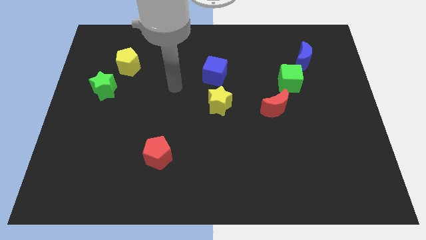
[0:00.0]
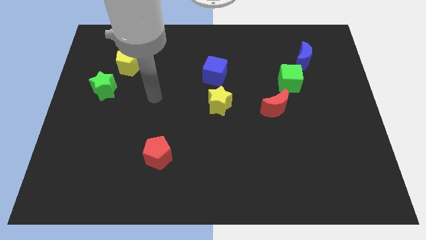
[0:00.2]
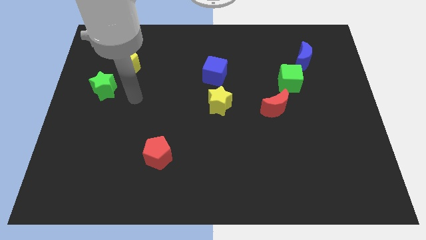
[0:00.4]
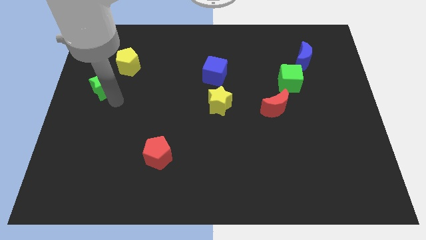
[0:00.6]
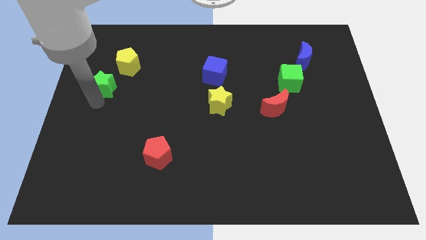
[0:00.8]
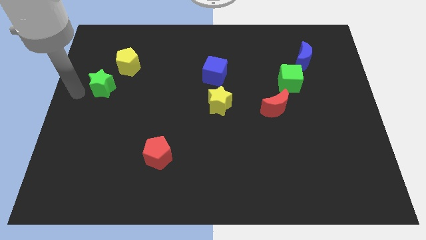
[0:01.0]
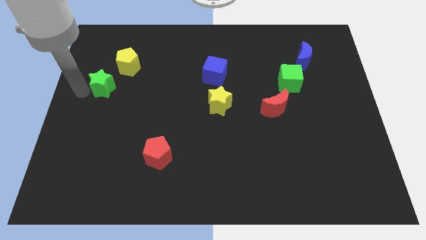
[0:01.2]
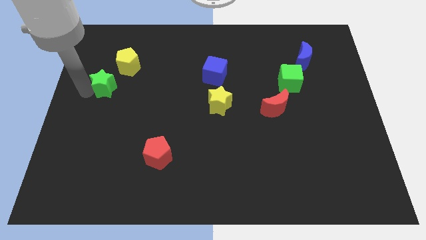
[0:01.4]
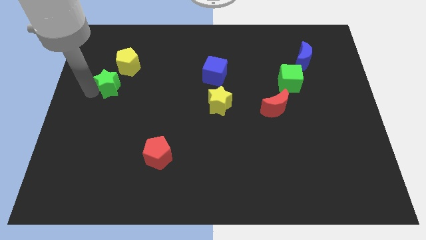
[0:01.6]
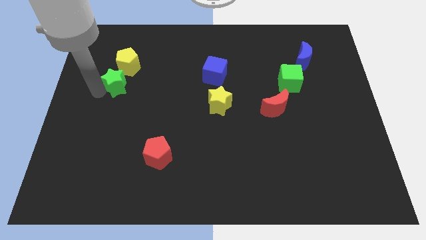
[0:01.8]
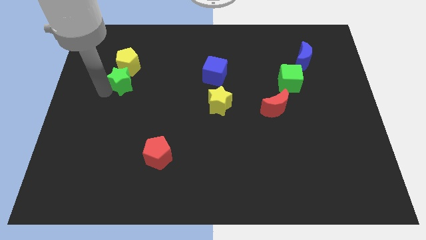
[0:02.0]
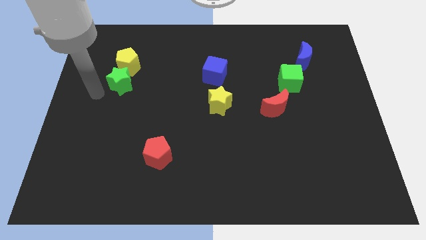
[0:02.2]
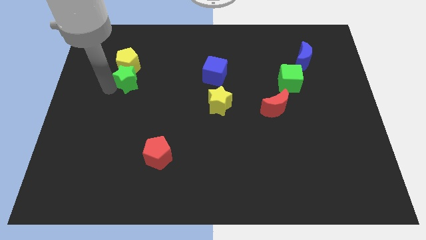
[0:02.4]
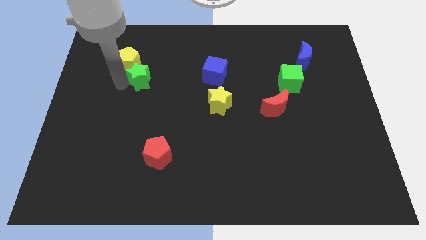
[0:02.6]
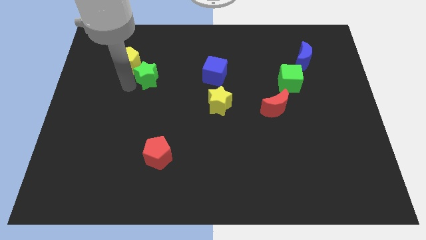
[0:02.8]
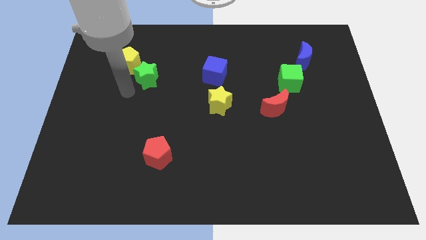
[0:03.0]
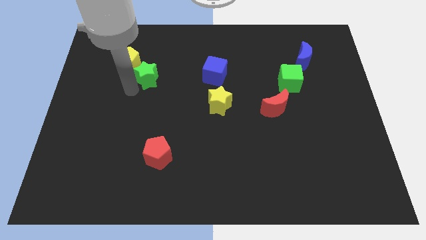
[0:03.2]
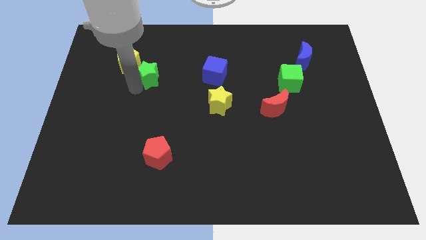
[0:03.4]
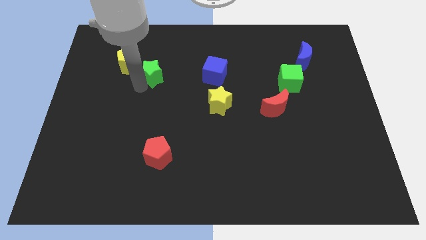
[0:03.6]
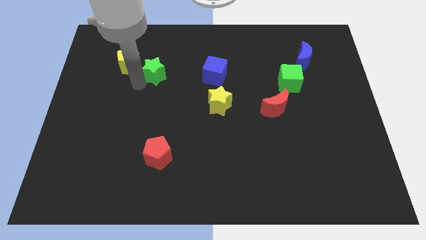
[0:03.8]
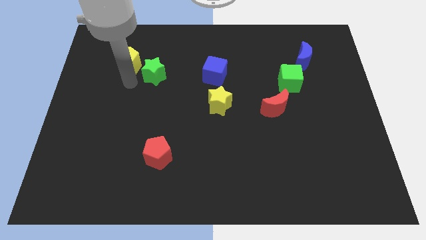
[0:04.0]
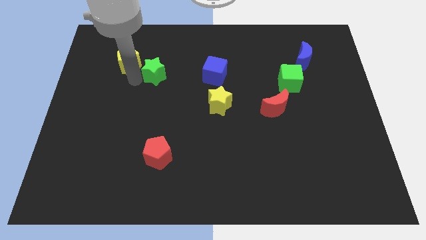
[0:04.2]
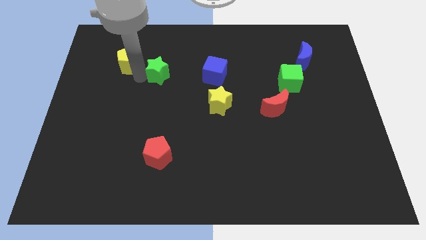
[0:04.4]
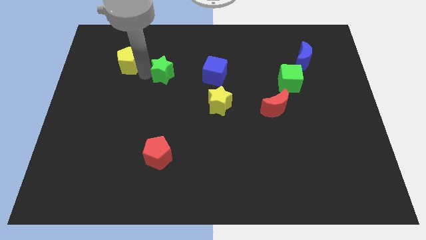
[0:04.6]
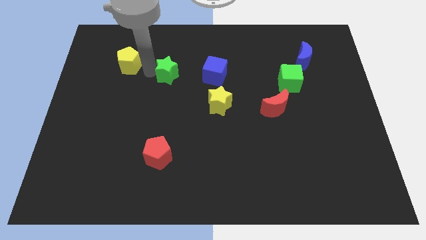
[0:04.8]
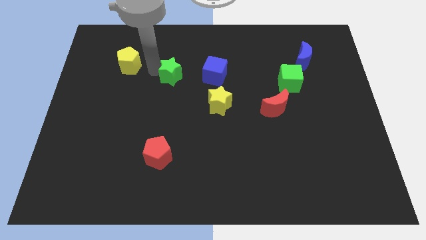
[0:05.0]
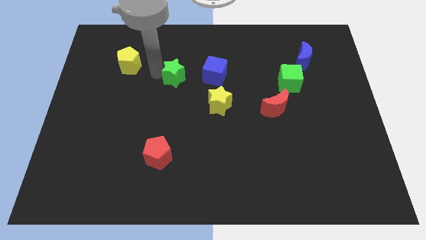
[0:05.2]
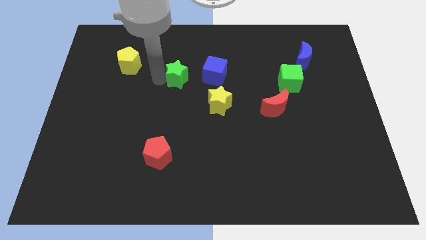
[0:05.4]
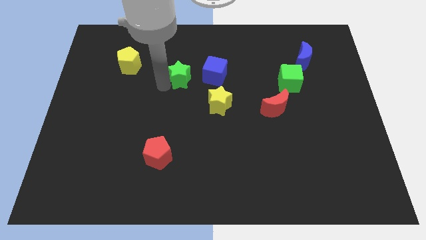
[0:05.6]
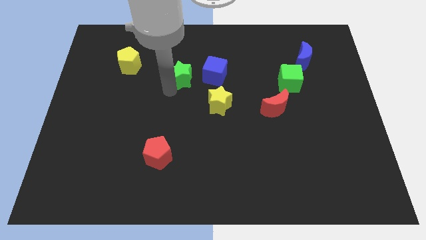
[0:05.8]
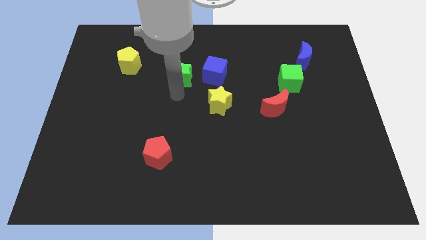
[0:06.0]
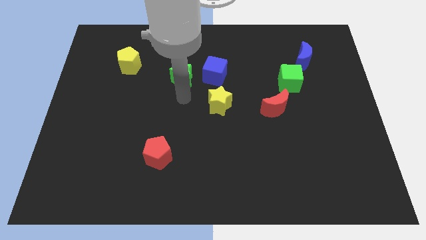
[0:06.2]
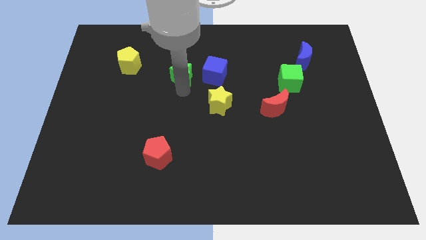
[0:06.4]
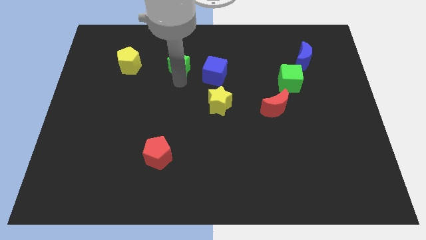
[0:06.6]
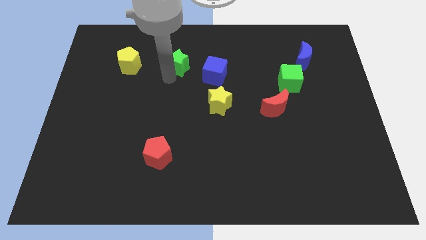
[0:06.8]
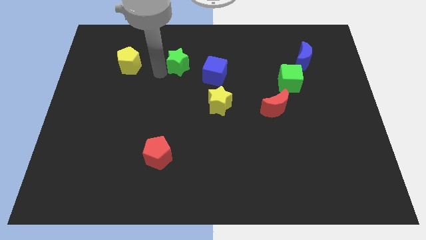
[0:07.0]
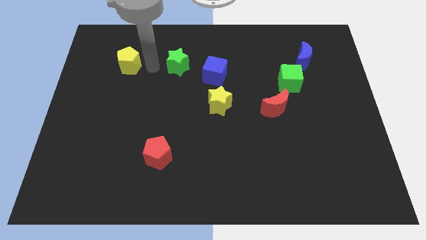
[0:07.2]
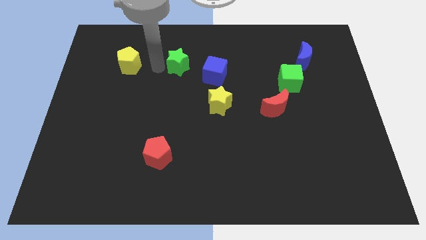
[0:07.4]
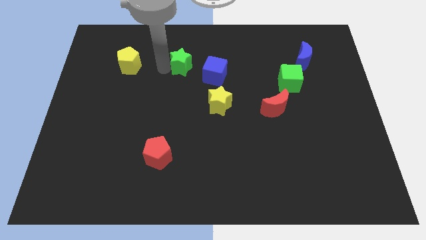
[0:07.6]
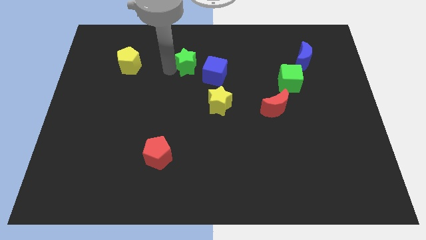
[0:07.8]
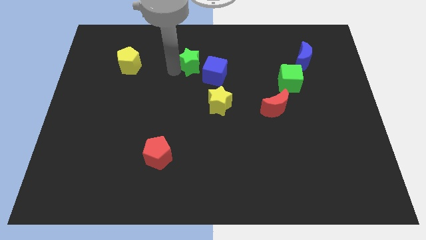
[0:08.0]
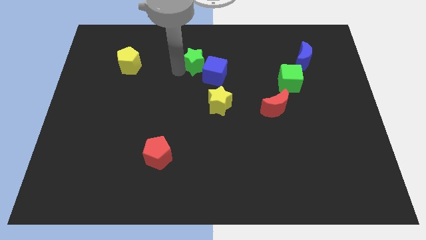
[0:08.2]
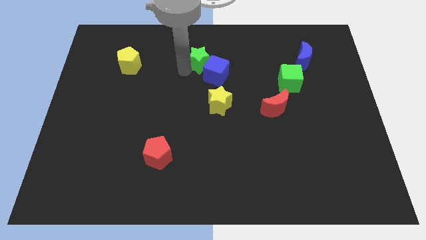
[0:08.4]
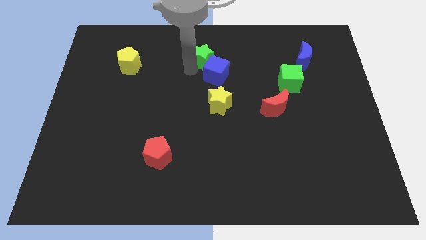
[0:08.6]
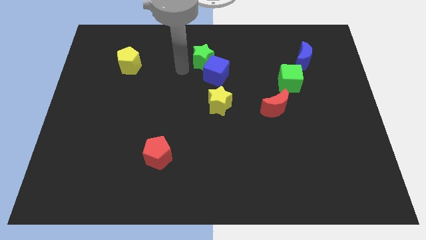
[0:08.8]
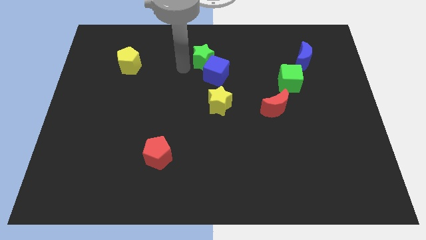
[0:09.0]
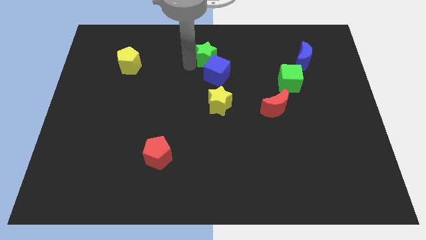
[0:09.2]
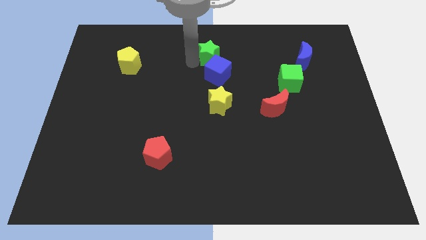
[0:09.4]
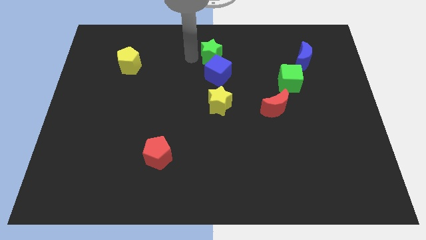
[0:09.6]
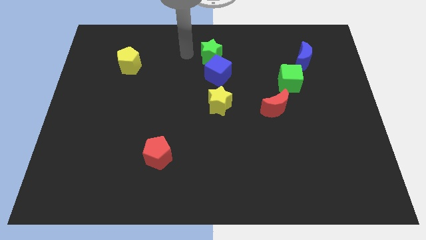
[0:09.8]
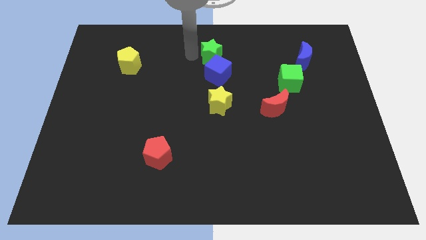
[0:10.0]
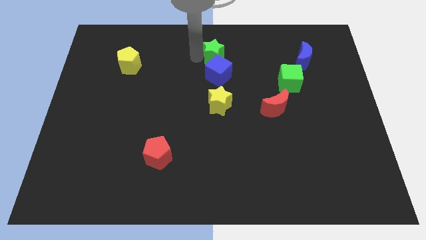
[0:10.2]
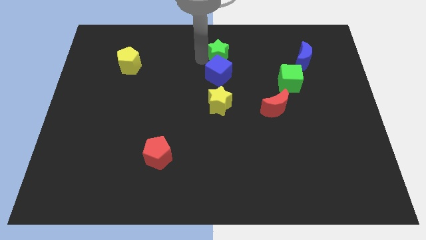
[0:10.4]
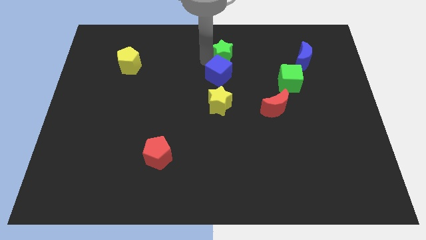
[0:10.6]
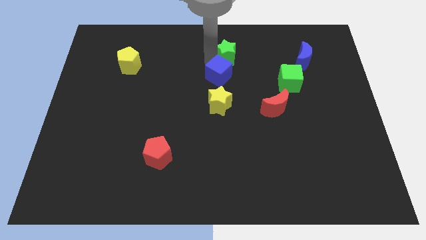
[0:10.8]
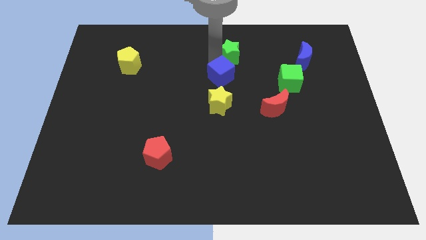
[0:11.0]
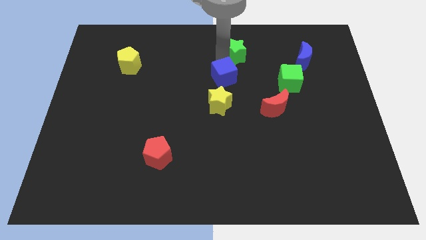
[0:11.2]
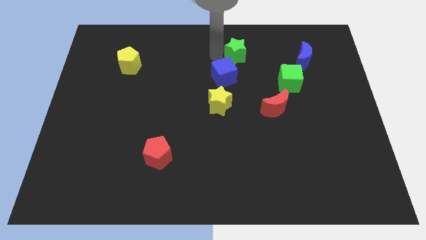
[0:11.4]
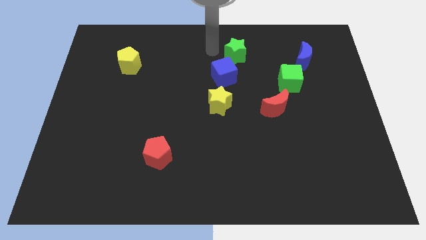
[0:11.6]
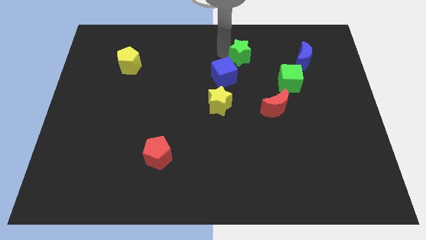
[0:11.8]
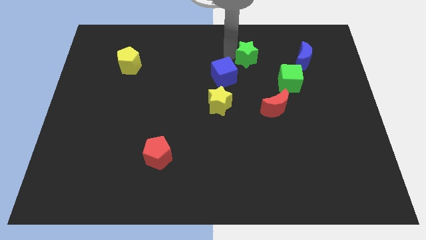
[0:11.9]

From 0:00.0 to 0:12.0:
move the green star to the left of the blue moon

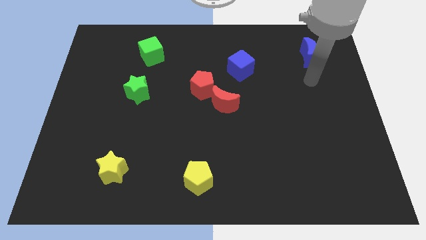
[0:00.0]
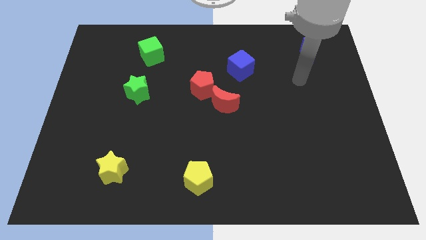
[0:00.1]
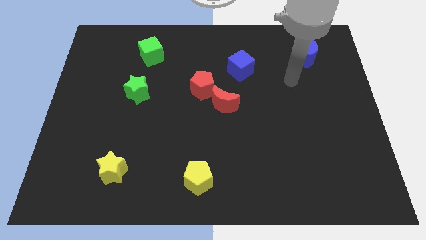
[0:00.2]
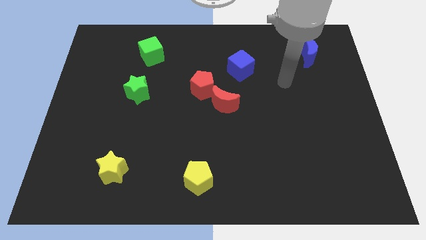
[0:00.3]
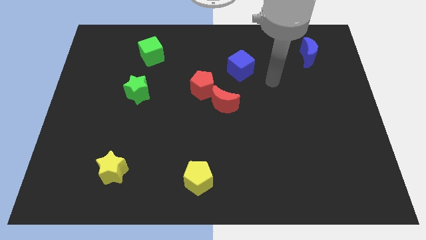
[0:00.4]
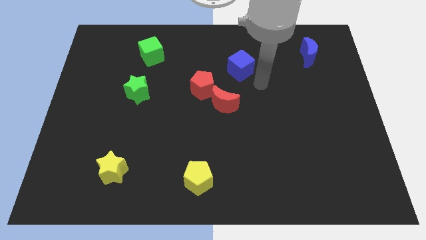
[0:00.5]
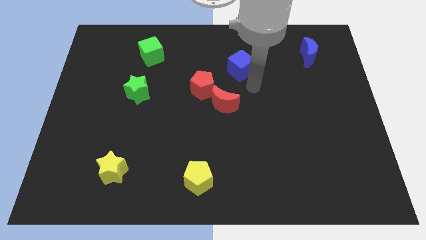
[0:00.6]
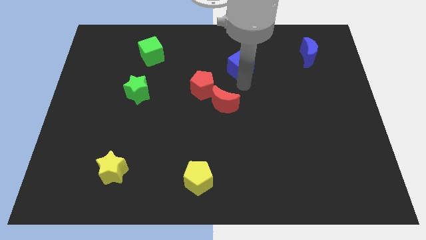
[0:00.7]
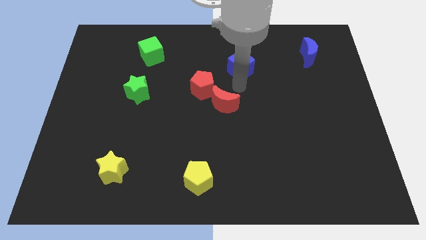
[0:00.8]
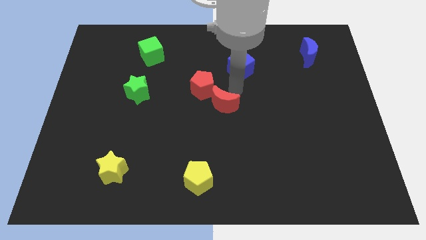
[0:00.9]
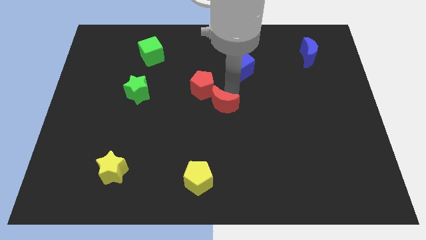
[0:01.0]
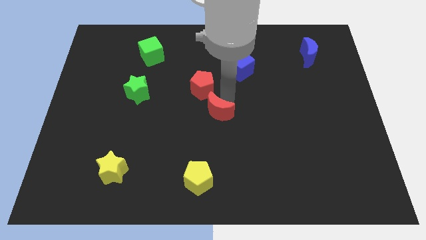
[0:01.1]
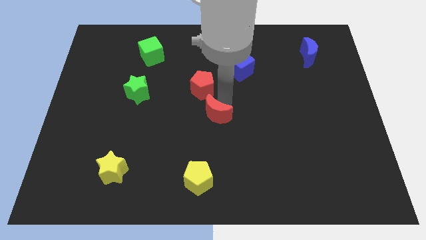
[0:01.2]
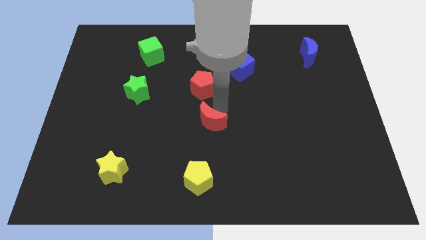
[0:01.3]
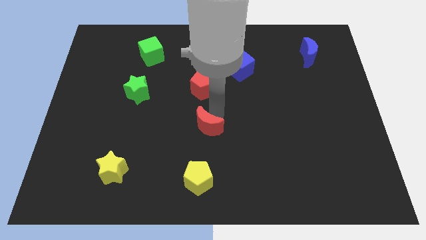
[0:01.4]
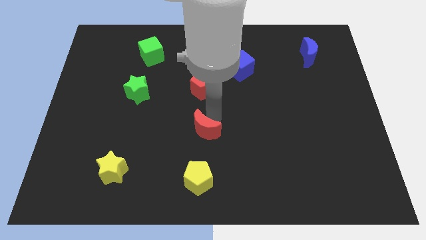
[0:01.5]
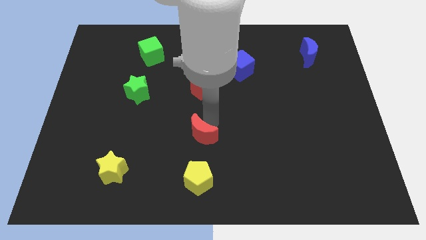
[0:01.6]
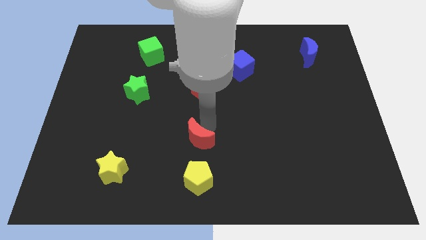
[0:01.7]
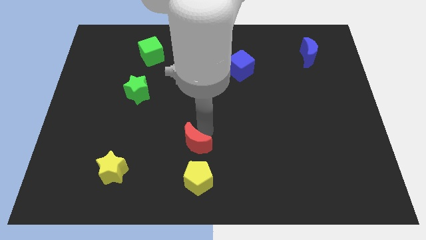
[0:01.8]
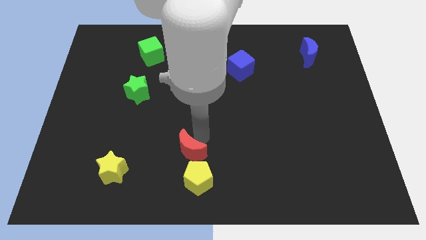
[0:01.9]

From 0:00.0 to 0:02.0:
push the red moon to the top left side of the yellow pentagon
